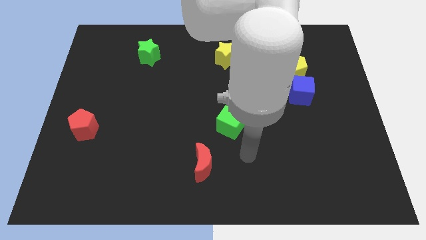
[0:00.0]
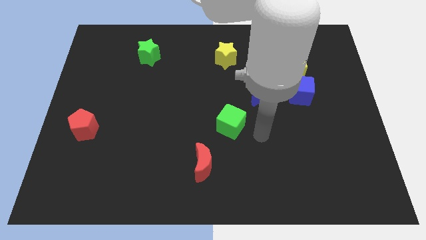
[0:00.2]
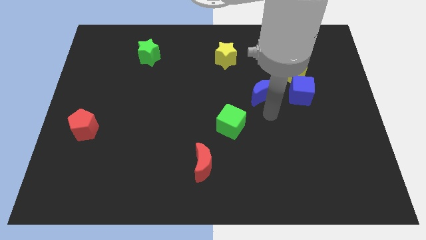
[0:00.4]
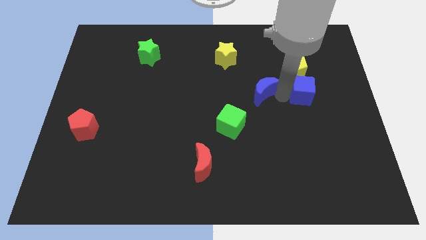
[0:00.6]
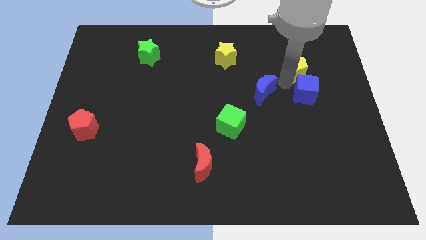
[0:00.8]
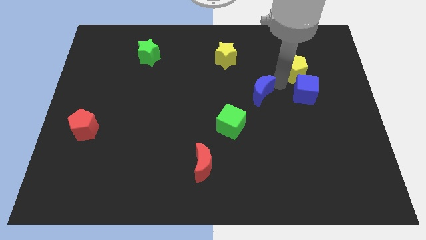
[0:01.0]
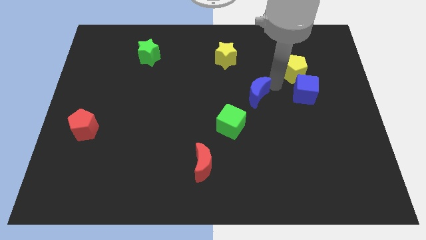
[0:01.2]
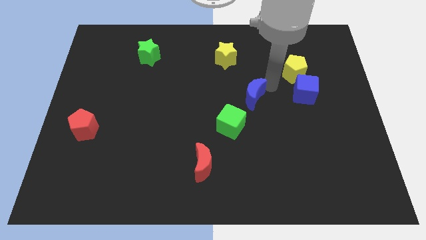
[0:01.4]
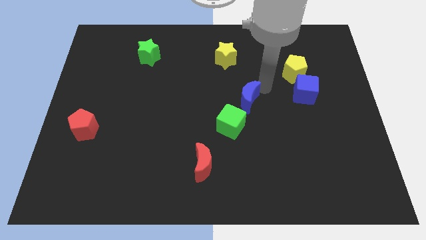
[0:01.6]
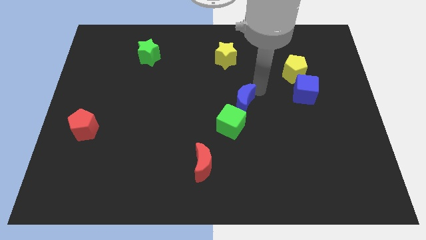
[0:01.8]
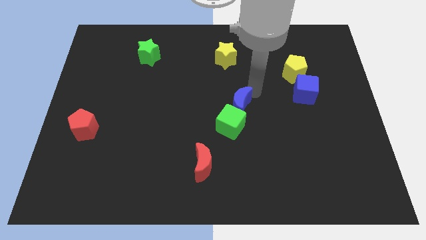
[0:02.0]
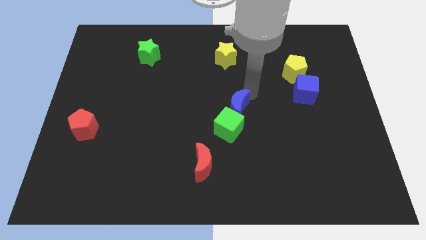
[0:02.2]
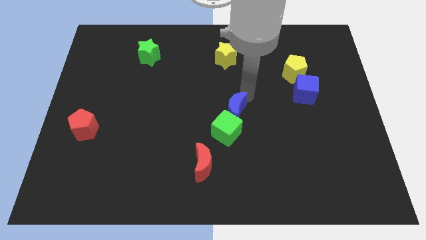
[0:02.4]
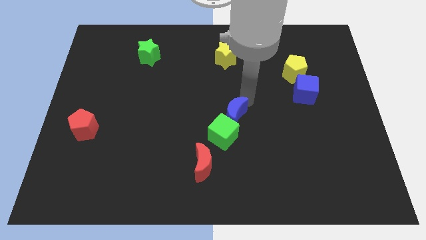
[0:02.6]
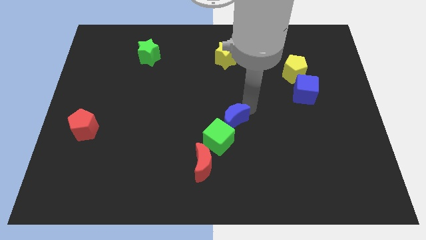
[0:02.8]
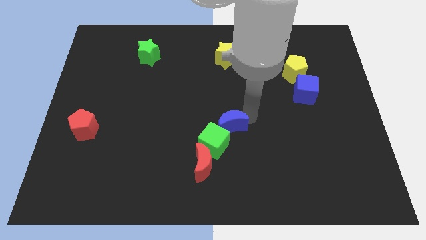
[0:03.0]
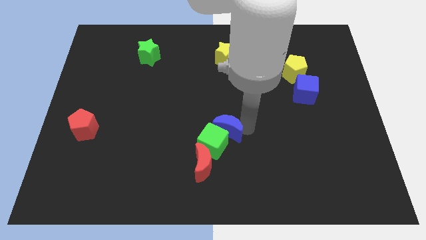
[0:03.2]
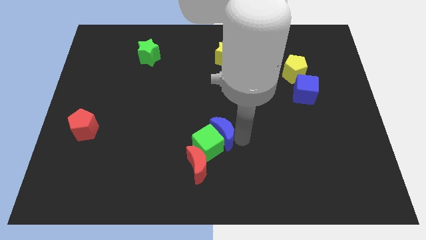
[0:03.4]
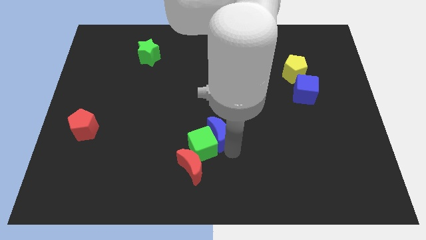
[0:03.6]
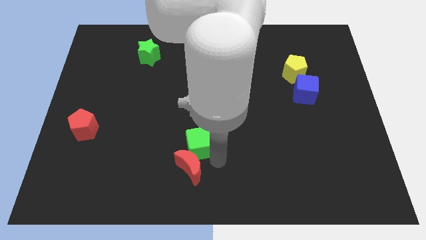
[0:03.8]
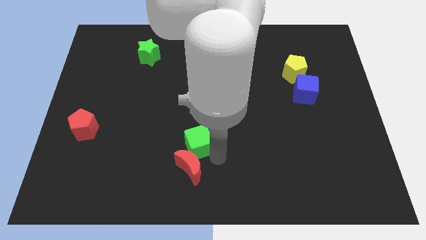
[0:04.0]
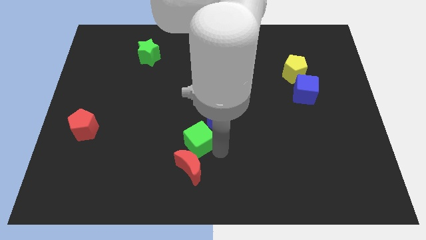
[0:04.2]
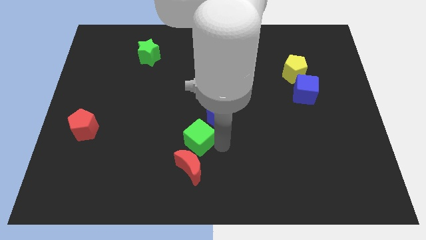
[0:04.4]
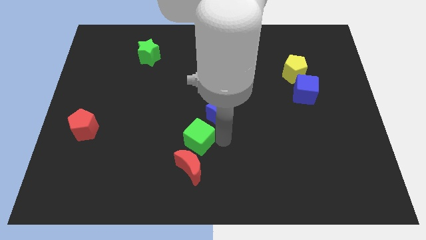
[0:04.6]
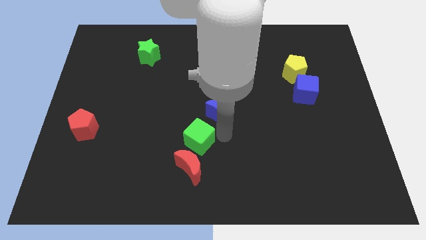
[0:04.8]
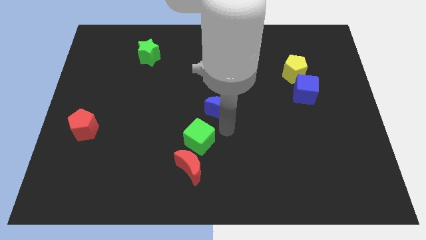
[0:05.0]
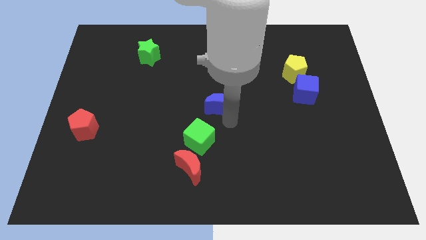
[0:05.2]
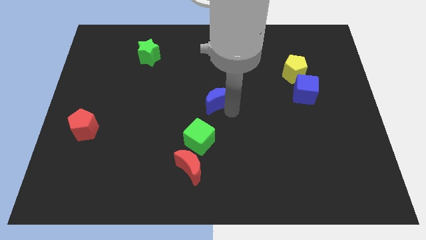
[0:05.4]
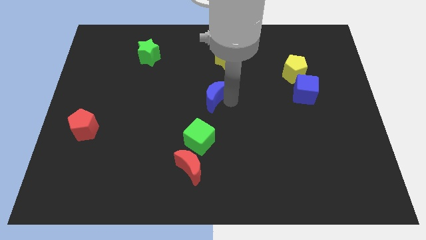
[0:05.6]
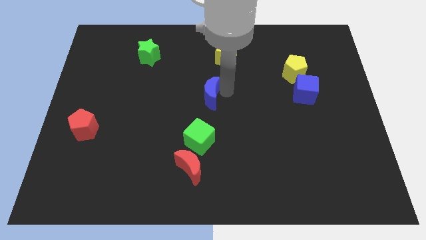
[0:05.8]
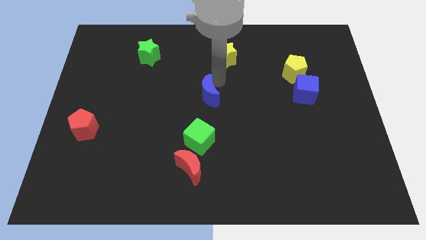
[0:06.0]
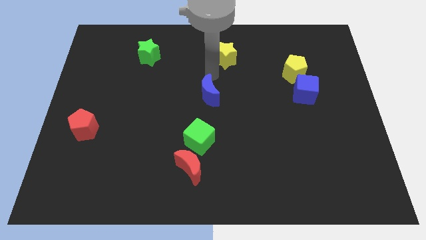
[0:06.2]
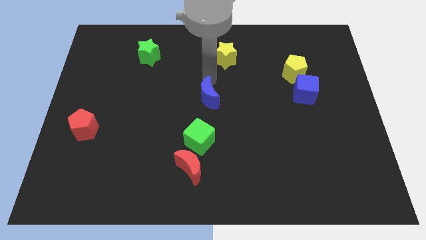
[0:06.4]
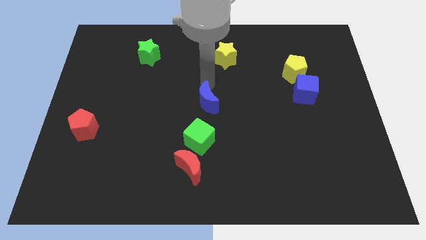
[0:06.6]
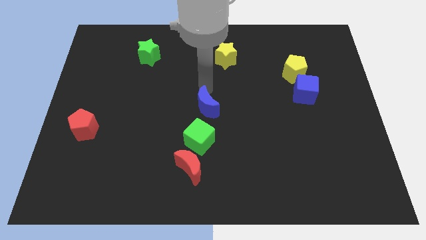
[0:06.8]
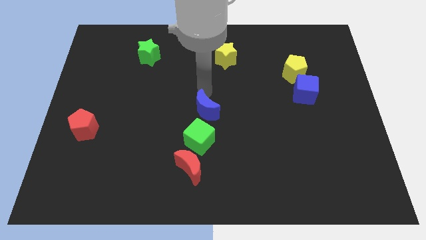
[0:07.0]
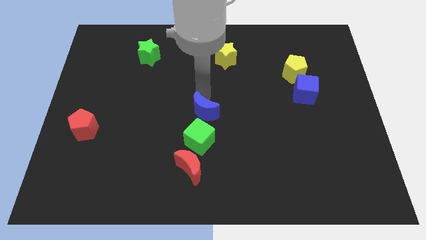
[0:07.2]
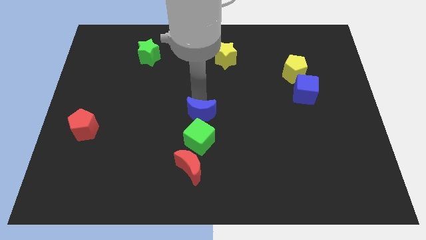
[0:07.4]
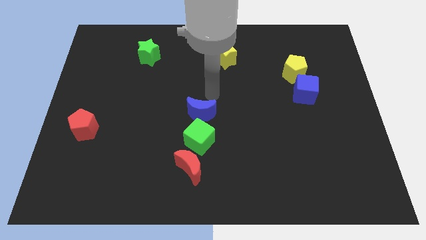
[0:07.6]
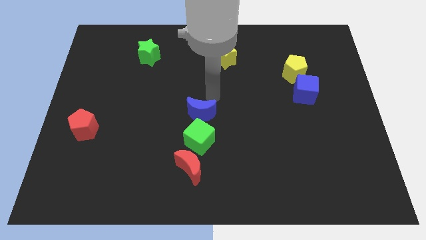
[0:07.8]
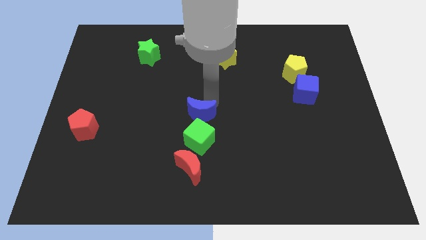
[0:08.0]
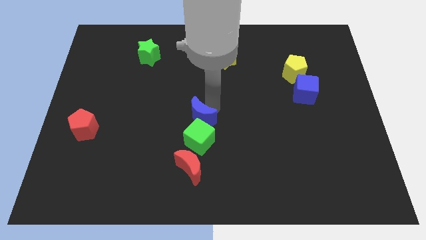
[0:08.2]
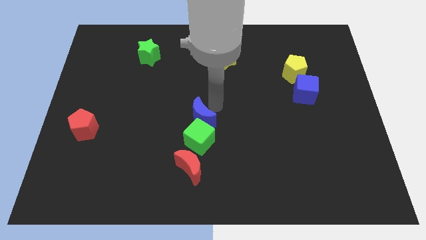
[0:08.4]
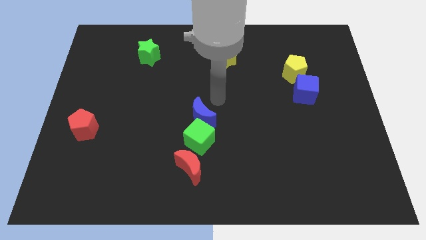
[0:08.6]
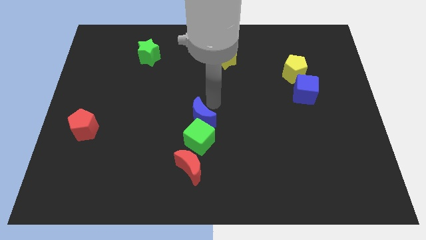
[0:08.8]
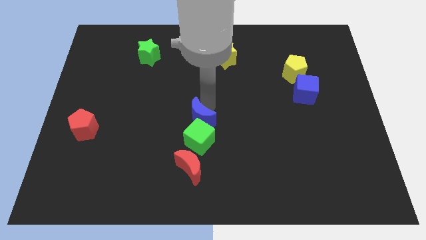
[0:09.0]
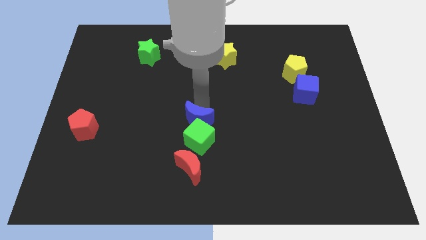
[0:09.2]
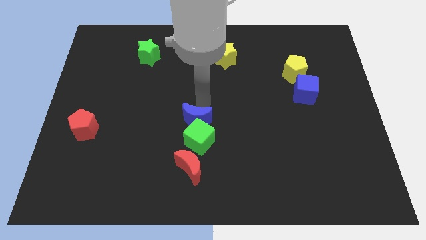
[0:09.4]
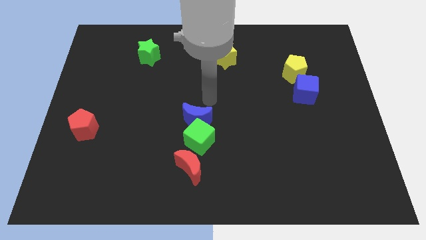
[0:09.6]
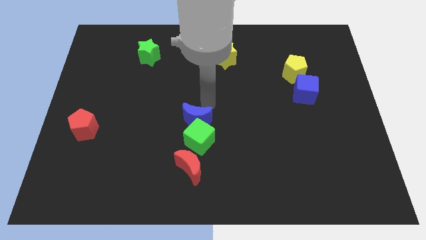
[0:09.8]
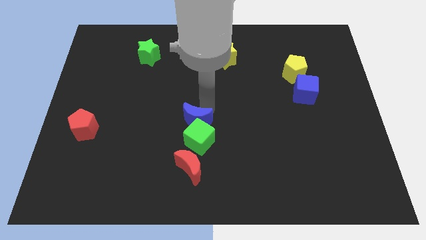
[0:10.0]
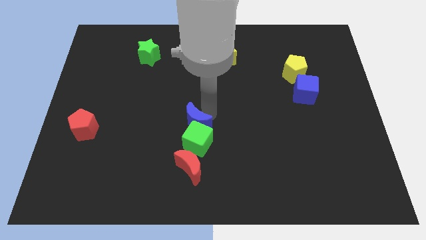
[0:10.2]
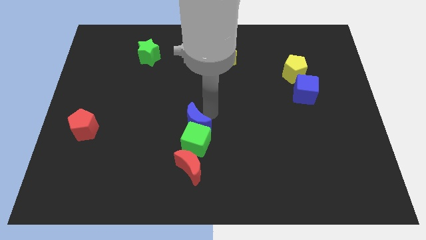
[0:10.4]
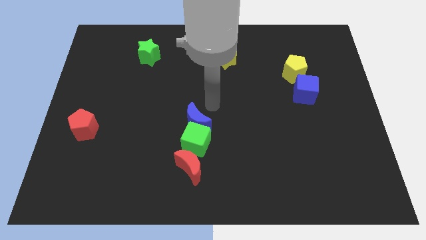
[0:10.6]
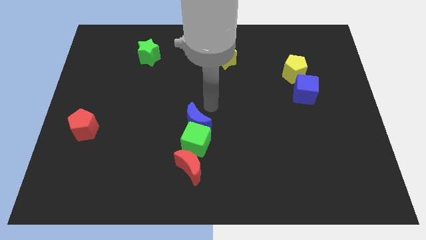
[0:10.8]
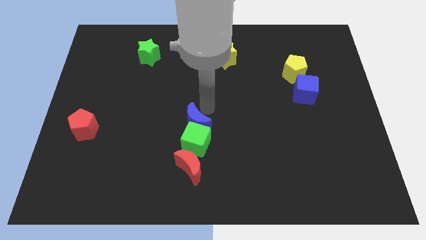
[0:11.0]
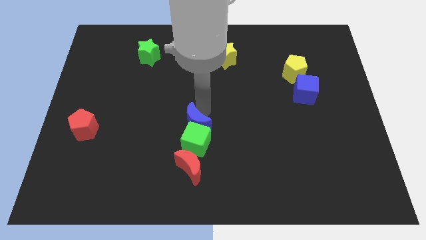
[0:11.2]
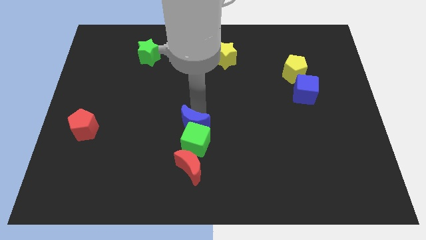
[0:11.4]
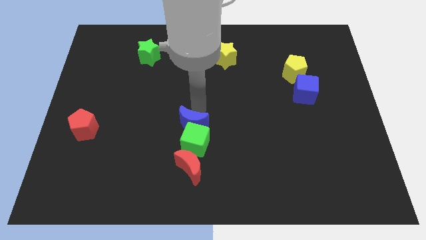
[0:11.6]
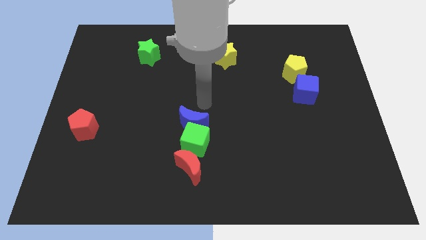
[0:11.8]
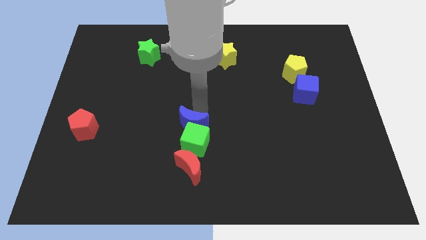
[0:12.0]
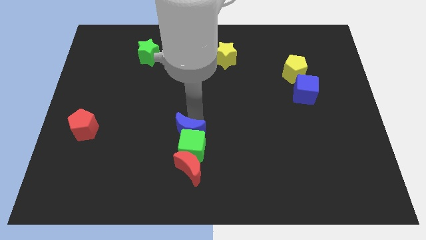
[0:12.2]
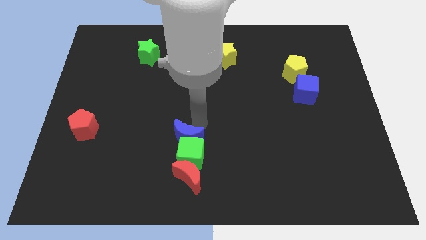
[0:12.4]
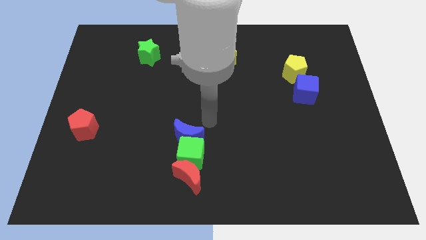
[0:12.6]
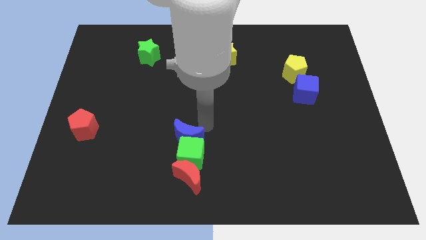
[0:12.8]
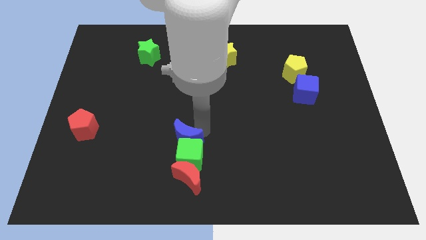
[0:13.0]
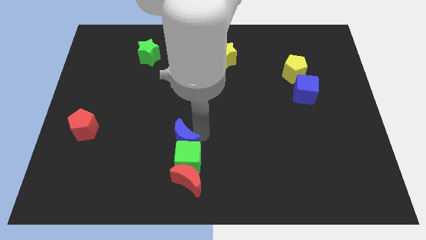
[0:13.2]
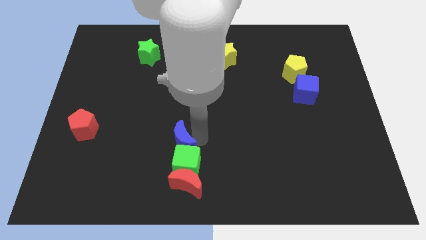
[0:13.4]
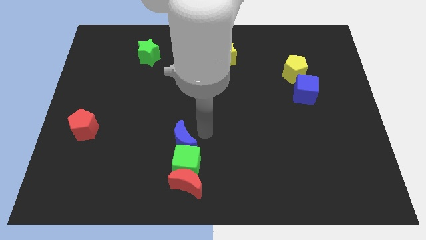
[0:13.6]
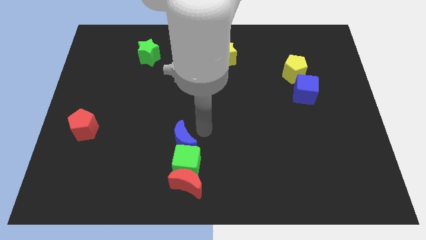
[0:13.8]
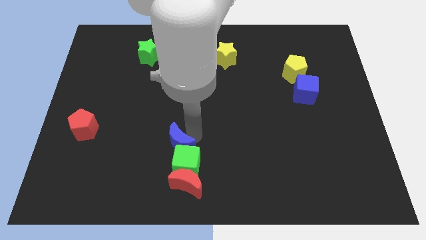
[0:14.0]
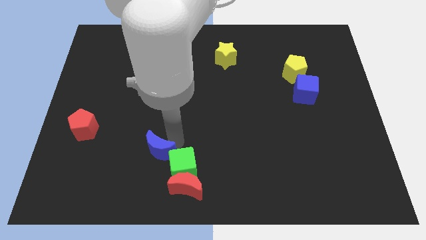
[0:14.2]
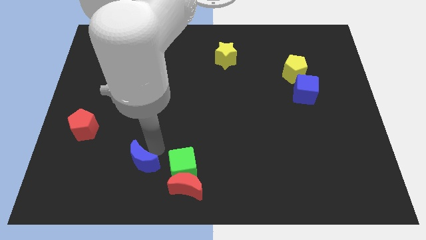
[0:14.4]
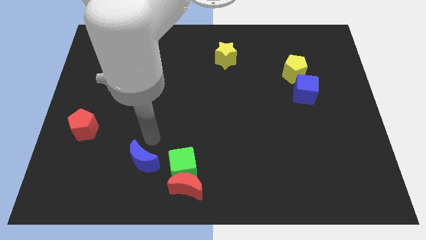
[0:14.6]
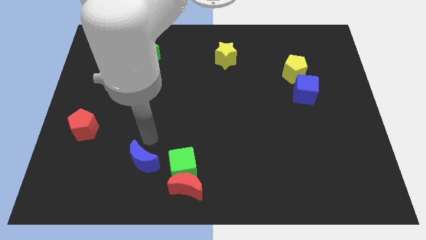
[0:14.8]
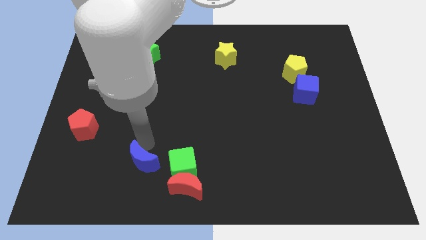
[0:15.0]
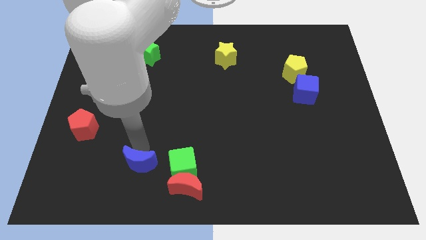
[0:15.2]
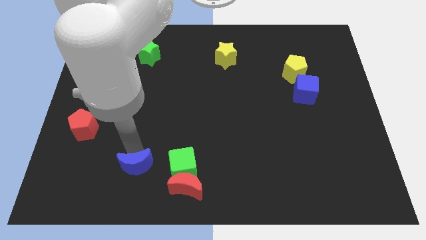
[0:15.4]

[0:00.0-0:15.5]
push the blue moon just left of the red moon

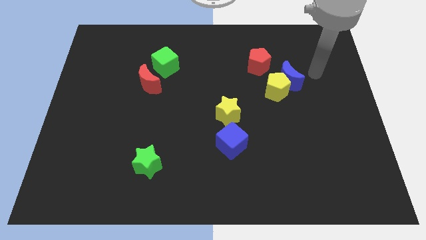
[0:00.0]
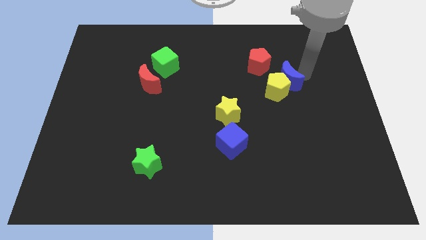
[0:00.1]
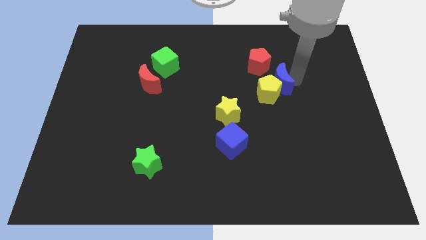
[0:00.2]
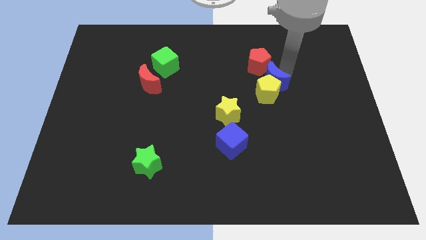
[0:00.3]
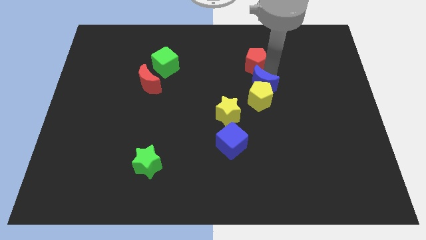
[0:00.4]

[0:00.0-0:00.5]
put the yellow pentagon to the right of the yellow star
